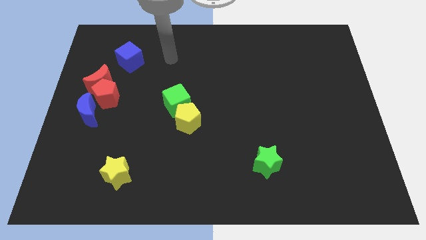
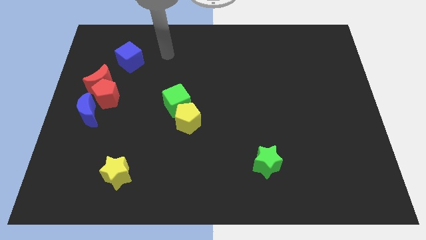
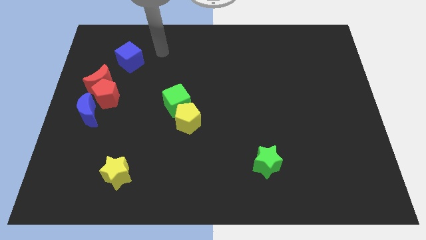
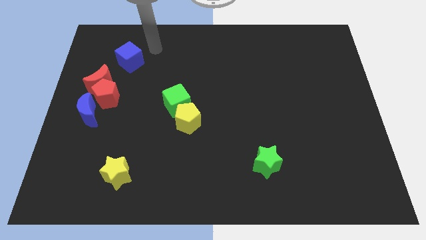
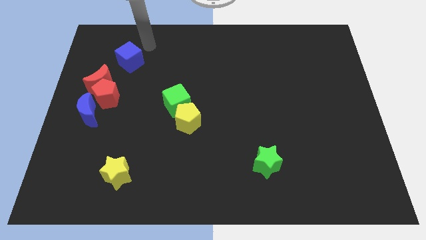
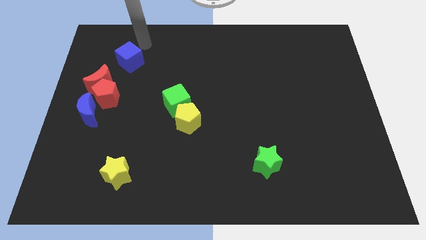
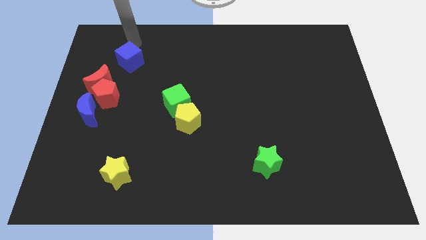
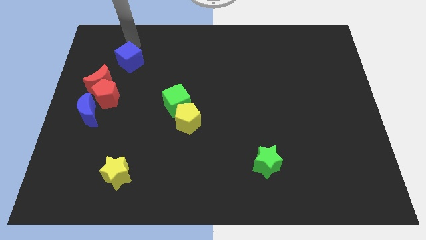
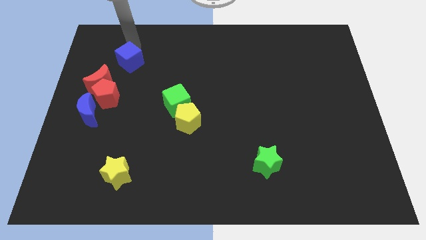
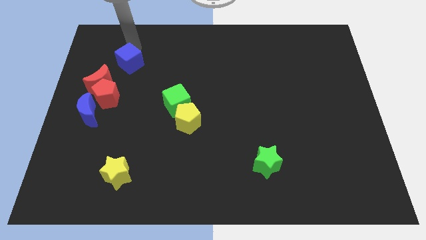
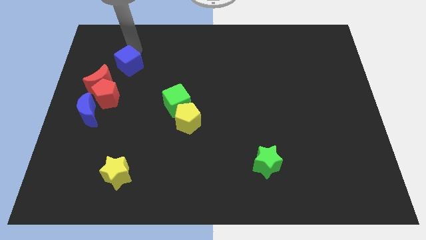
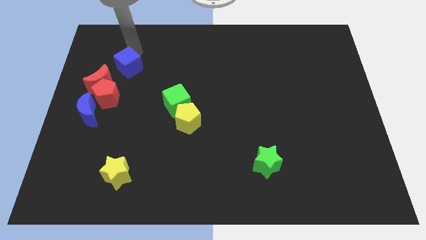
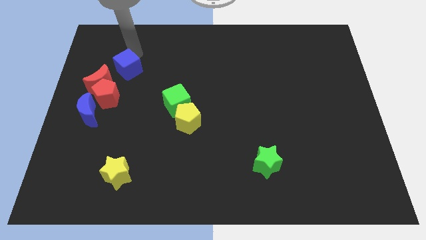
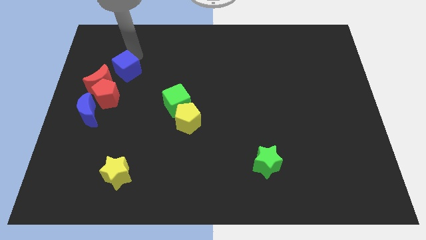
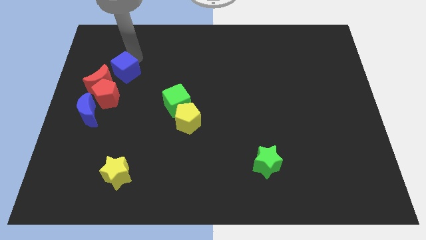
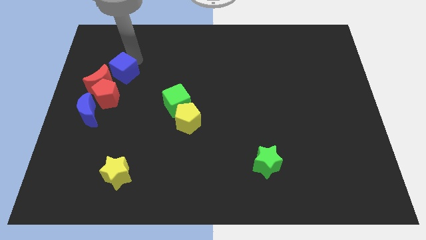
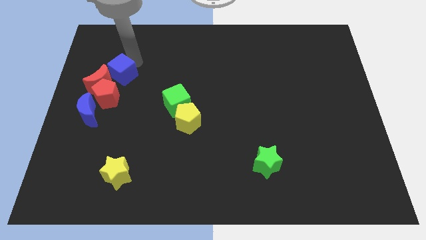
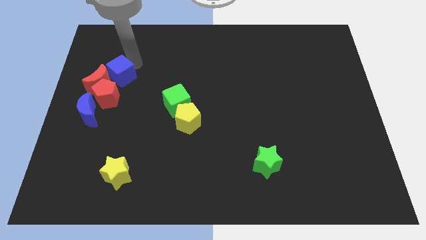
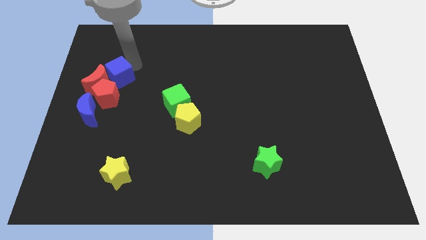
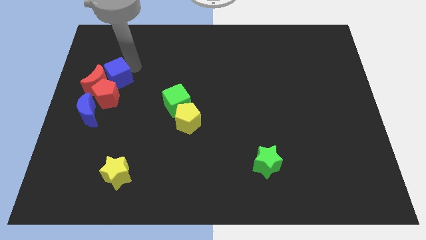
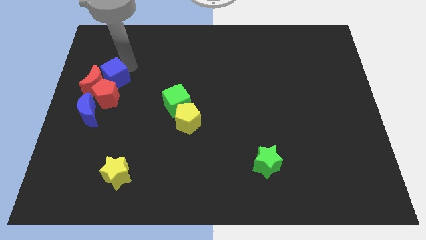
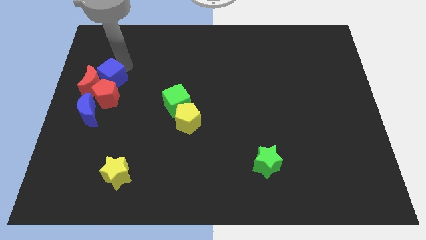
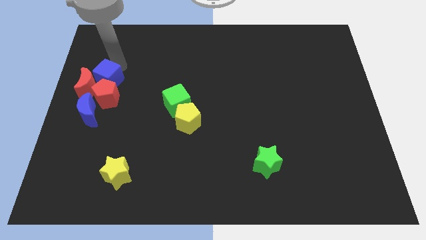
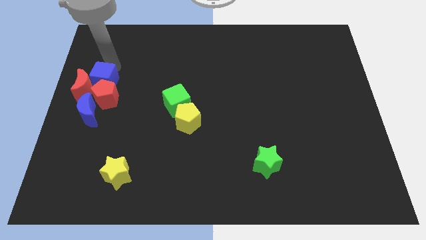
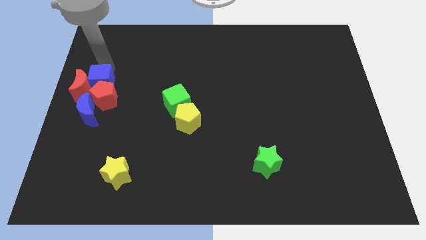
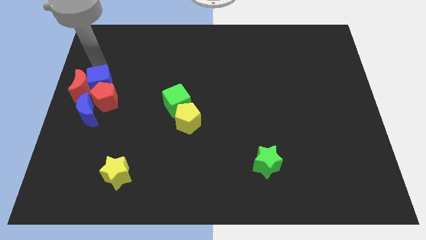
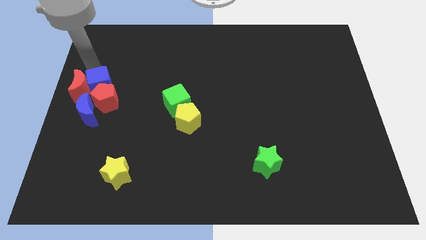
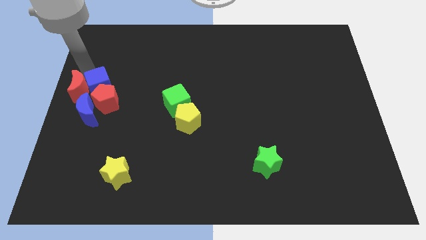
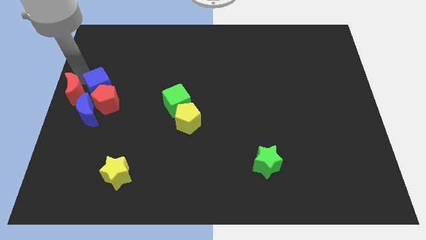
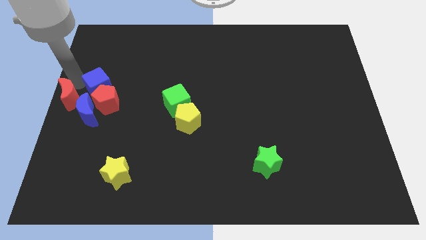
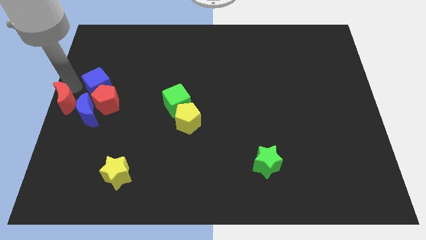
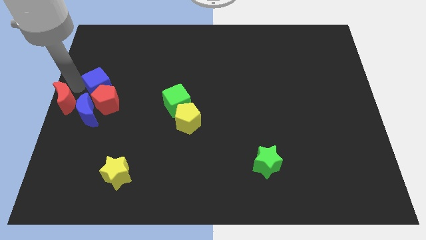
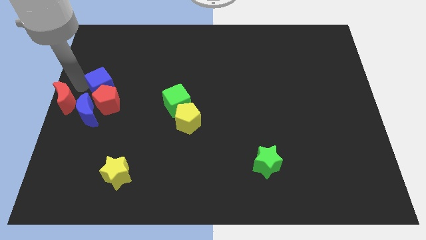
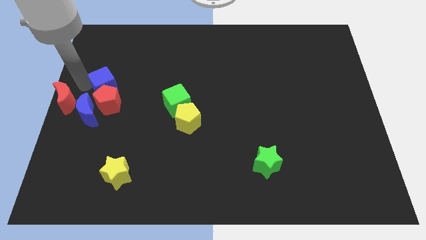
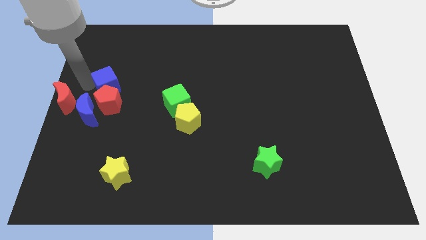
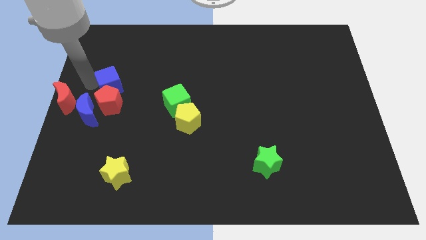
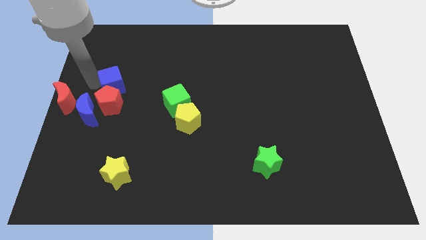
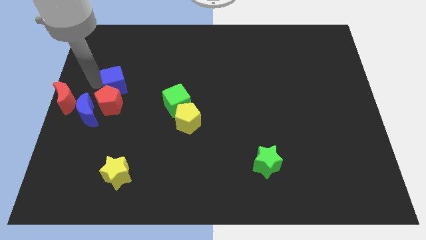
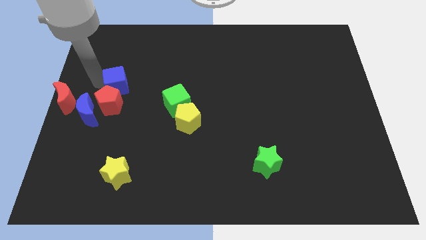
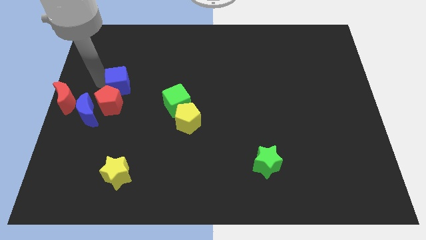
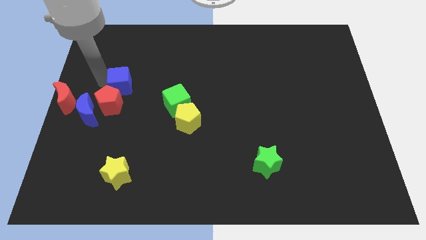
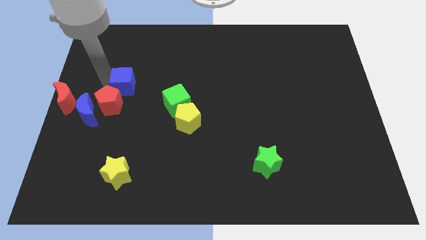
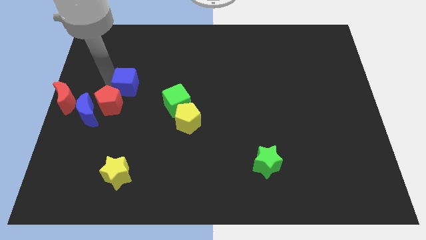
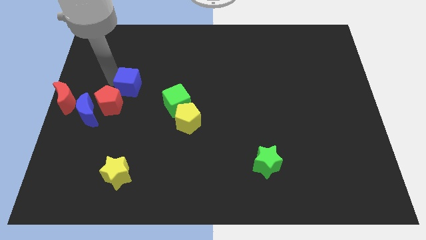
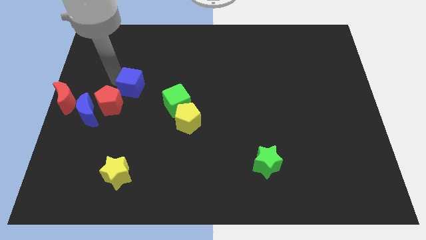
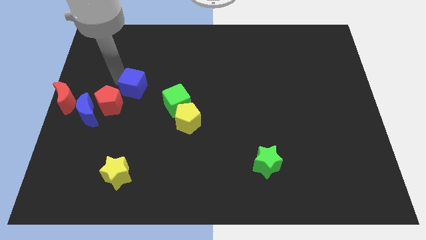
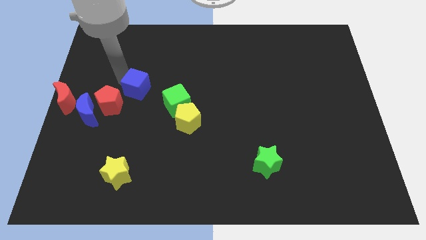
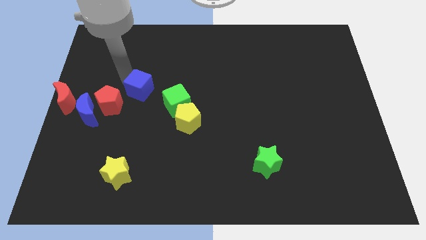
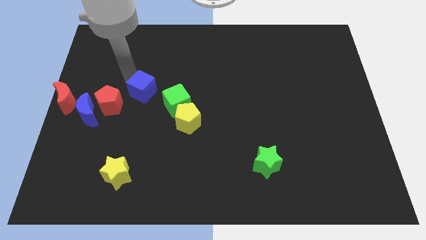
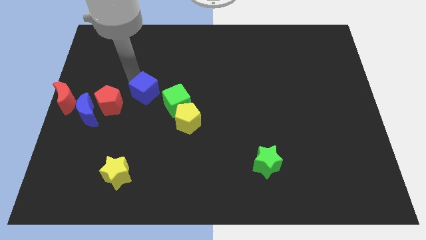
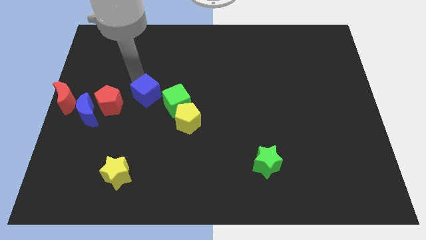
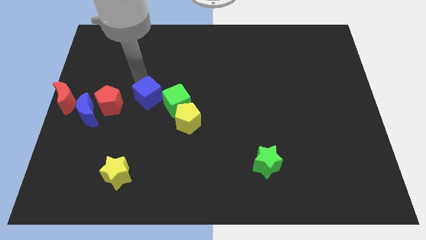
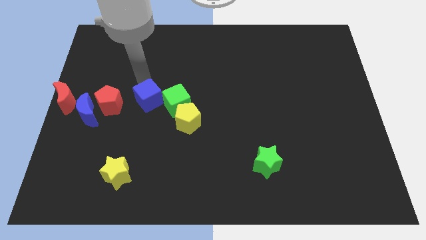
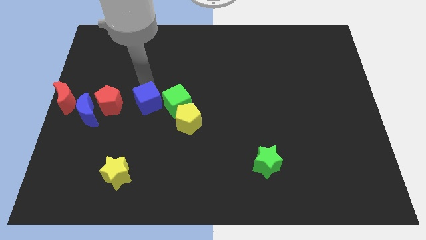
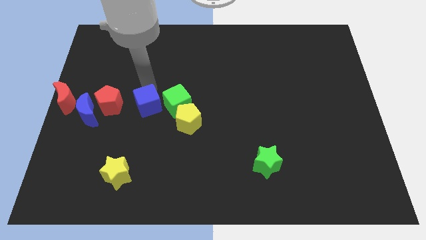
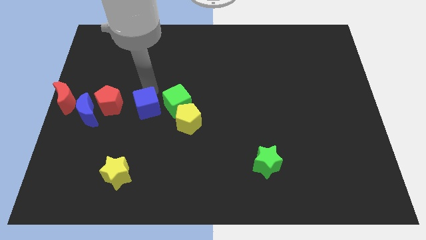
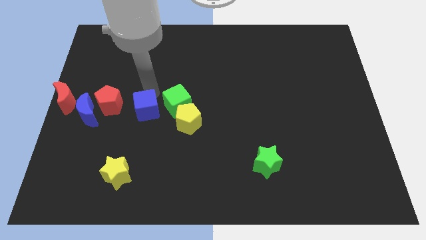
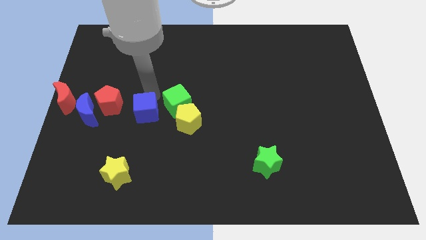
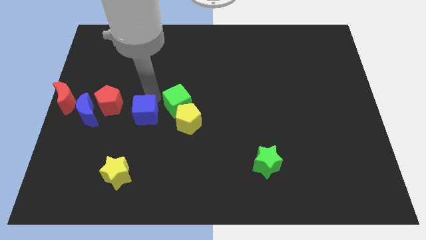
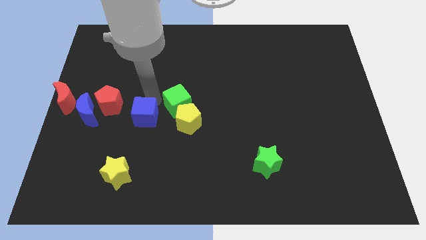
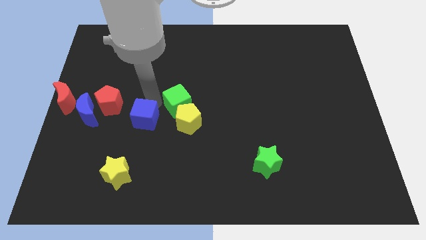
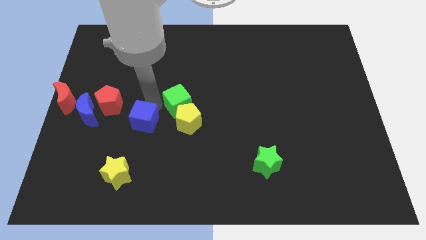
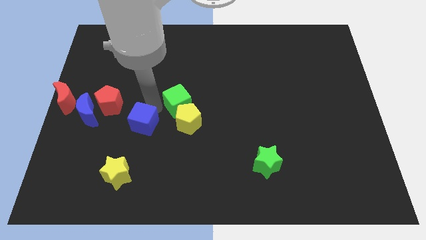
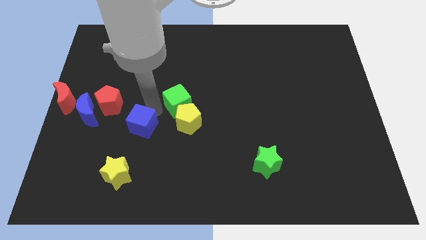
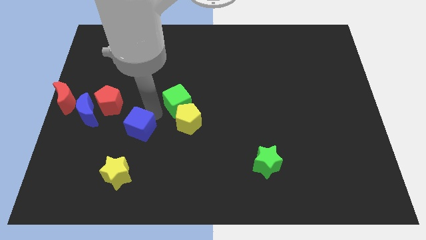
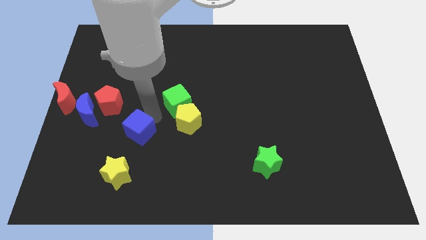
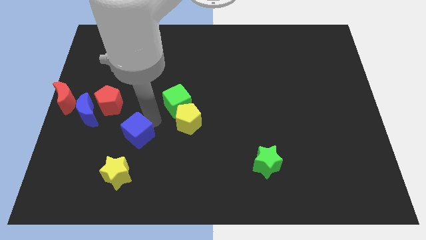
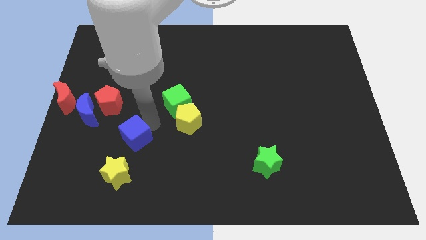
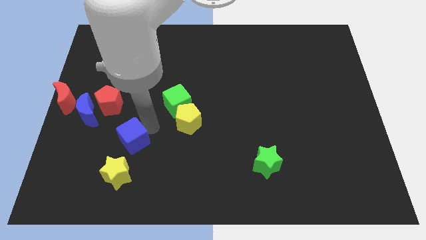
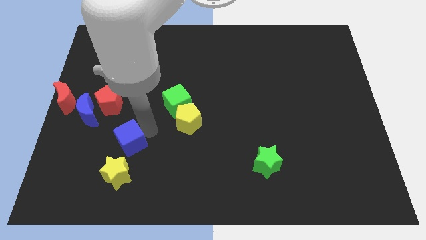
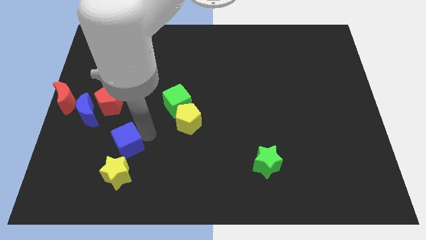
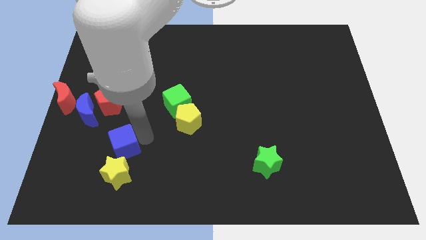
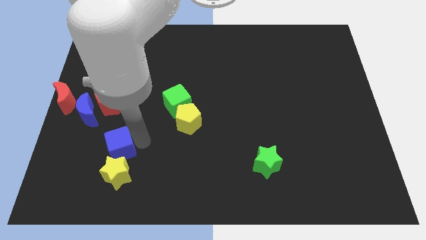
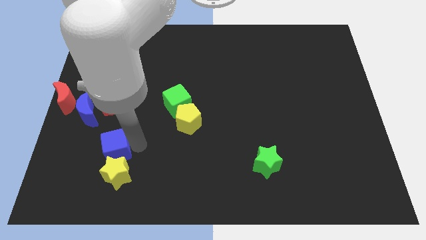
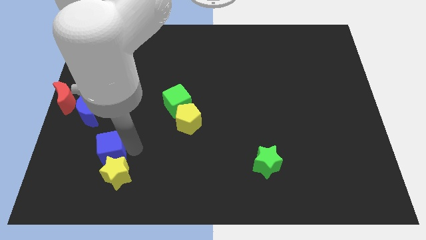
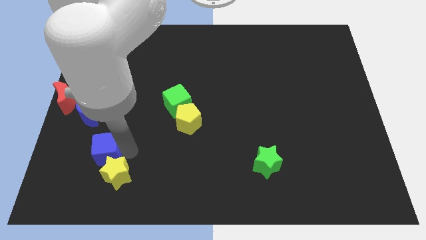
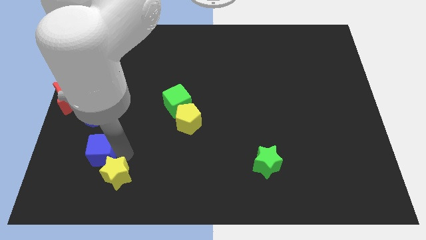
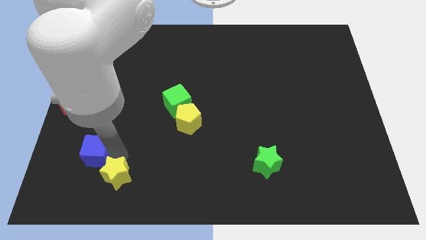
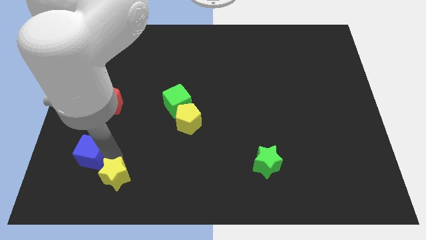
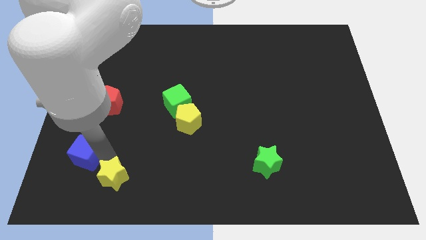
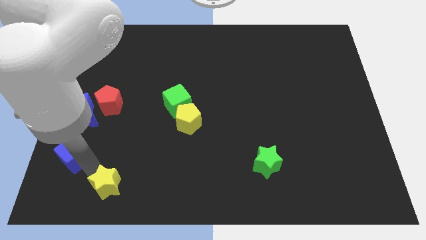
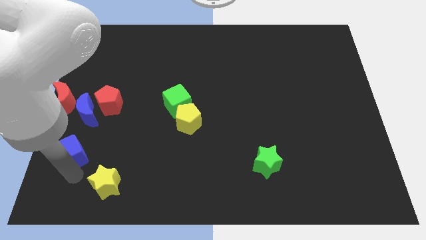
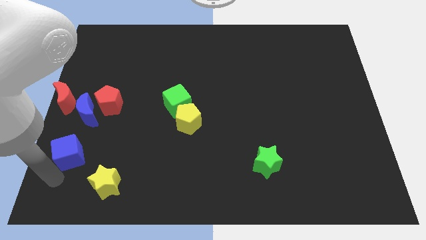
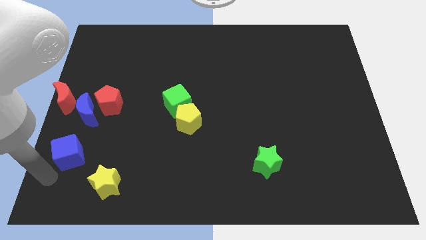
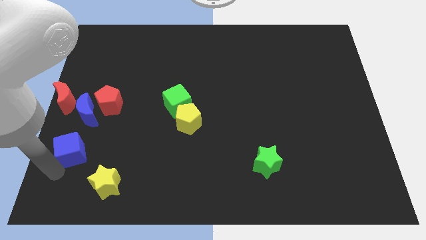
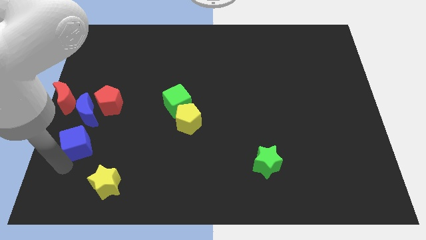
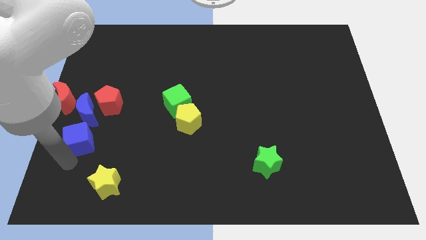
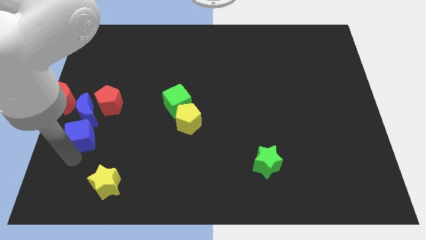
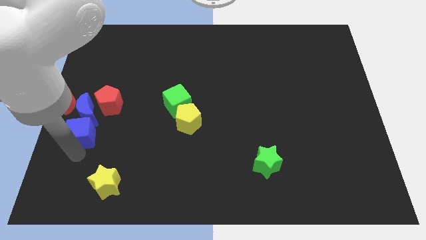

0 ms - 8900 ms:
move the blue cube next to the blue moon
